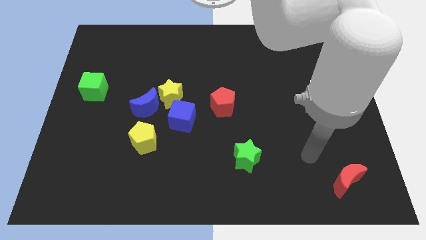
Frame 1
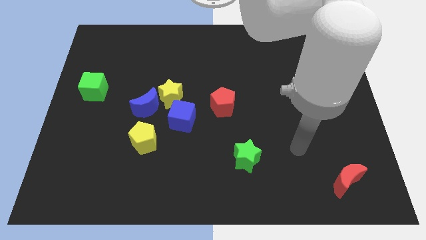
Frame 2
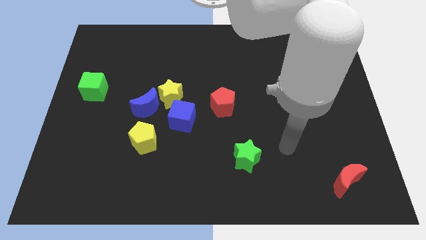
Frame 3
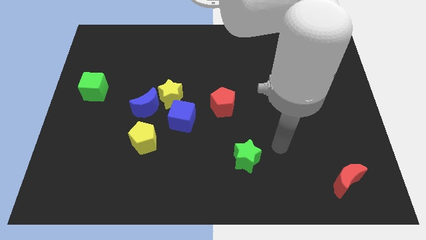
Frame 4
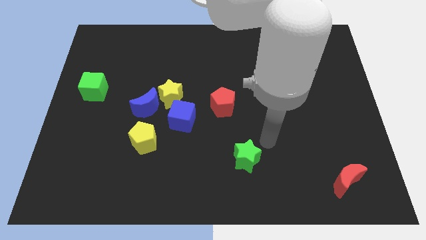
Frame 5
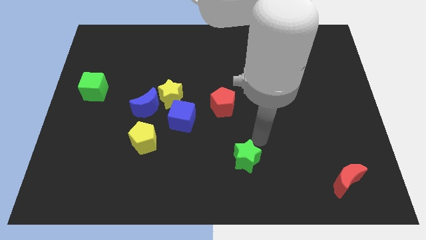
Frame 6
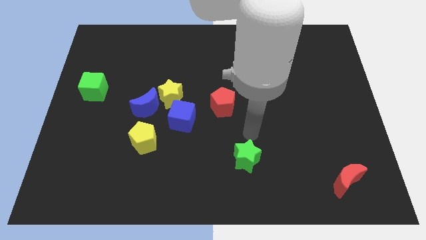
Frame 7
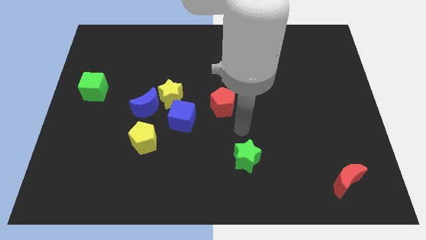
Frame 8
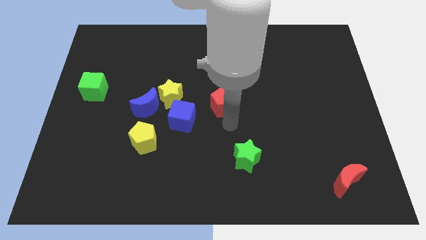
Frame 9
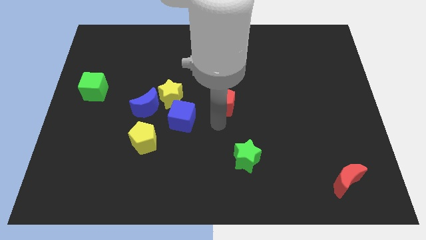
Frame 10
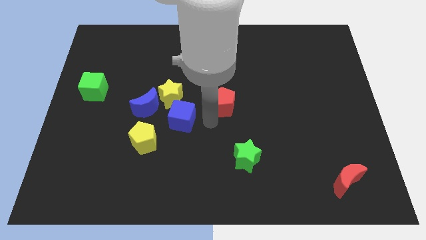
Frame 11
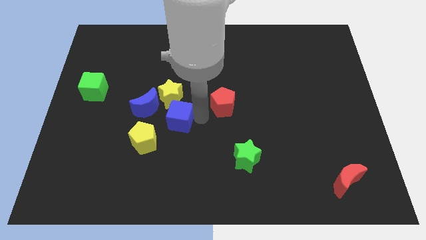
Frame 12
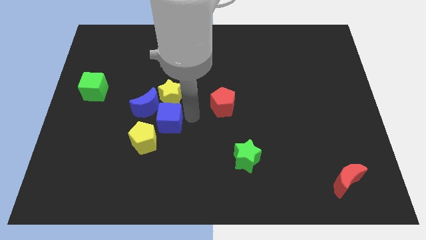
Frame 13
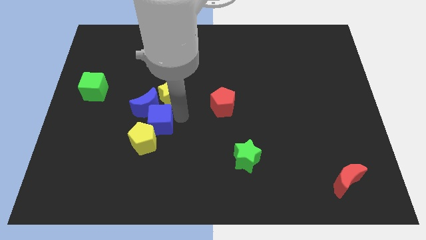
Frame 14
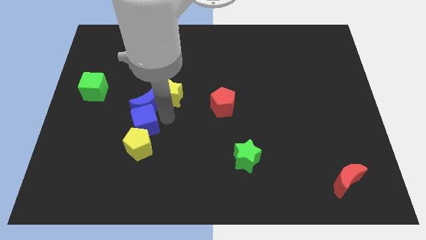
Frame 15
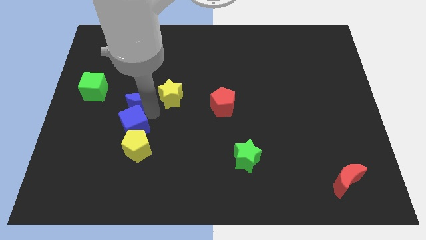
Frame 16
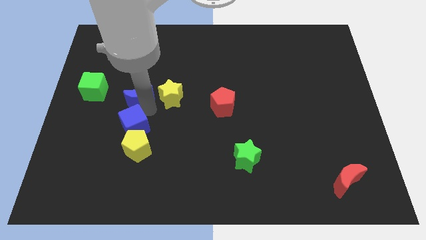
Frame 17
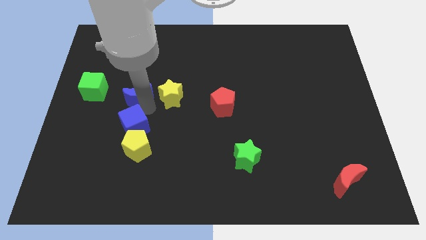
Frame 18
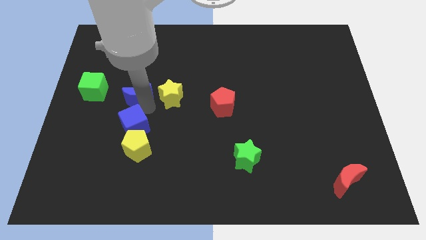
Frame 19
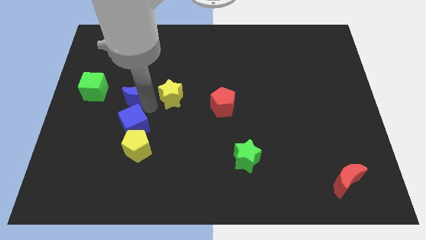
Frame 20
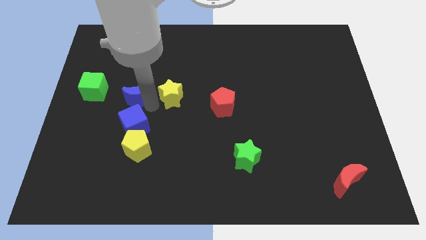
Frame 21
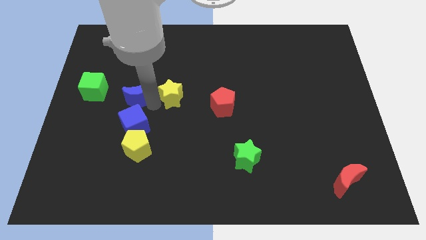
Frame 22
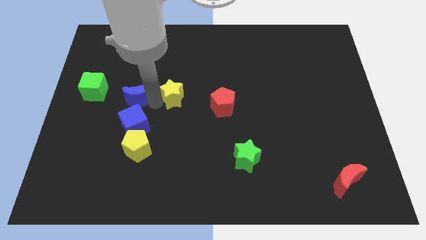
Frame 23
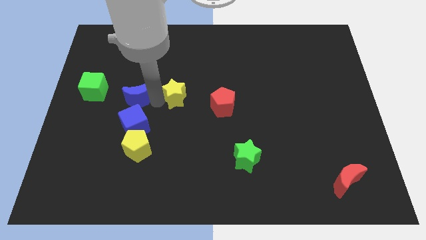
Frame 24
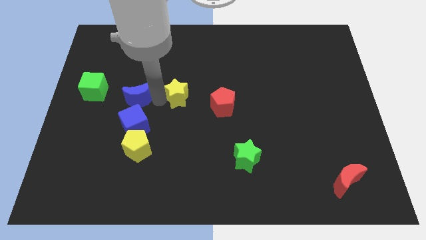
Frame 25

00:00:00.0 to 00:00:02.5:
move the yellow star away from the blue moon and blue cube

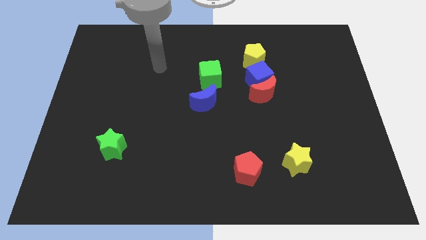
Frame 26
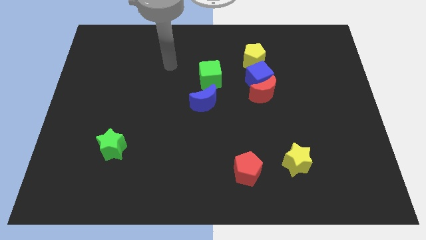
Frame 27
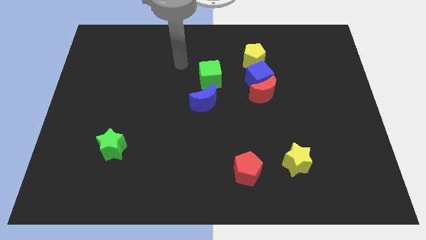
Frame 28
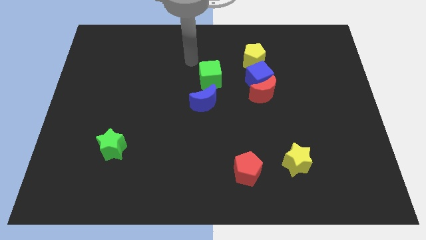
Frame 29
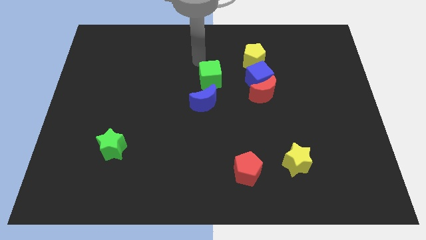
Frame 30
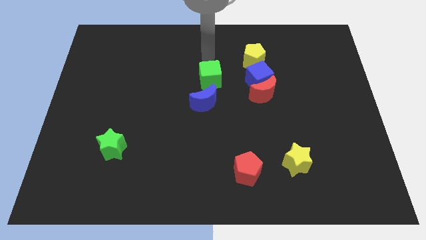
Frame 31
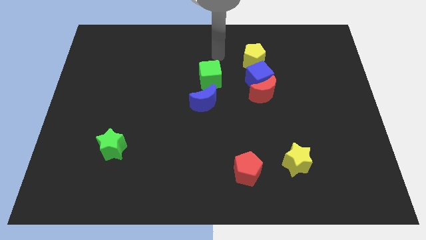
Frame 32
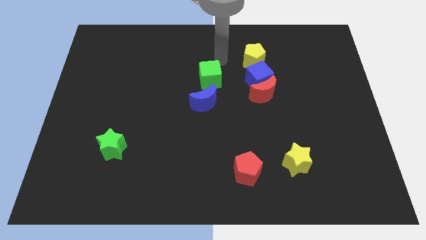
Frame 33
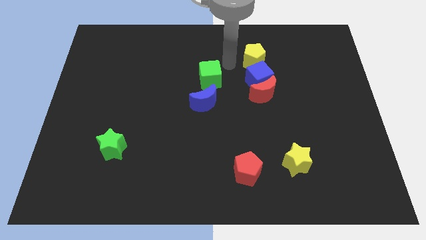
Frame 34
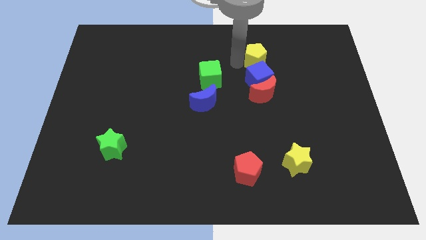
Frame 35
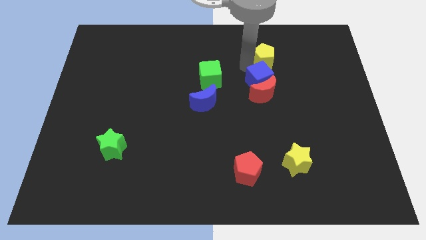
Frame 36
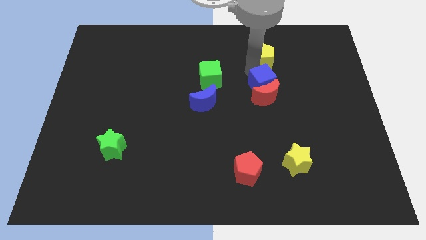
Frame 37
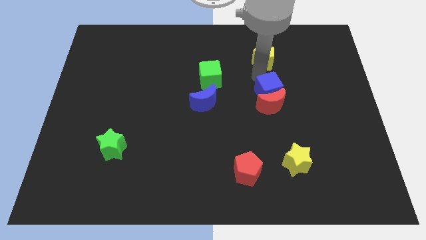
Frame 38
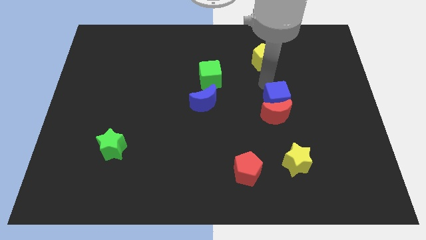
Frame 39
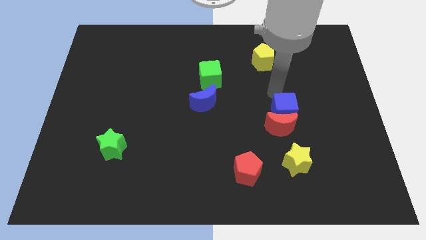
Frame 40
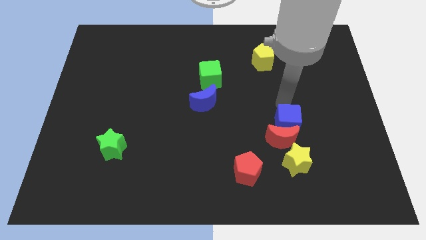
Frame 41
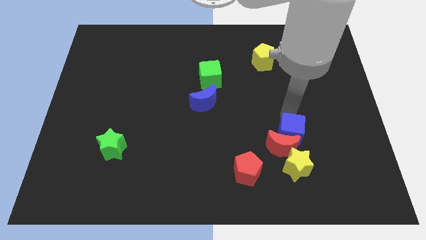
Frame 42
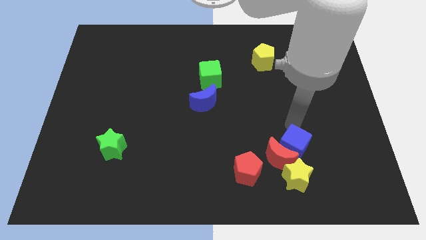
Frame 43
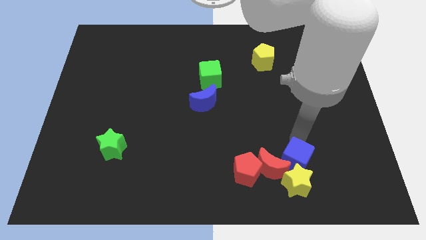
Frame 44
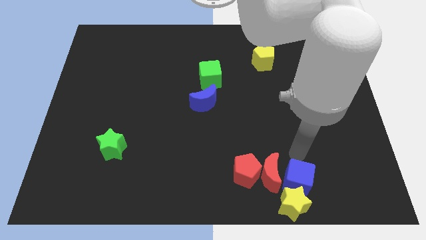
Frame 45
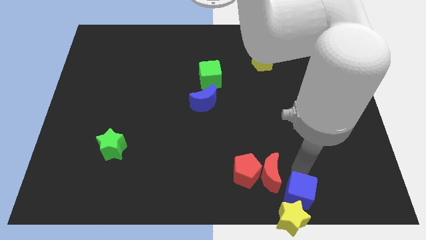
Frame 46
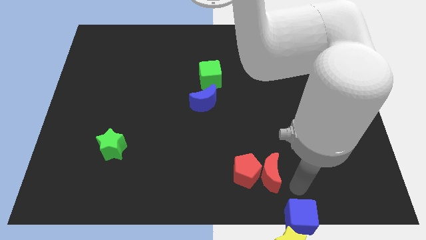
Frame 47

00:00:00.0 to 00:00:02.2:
separate the red moon from the blue cube

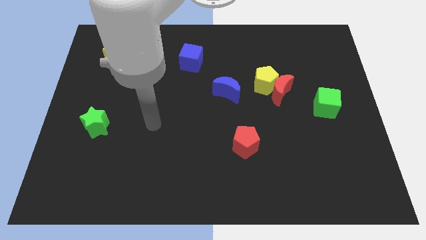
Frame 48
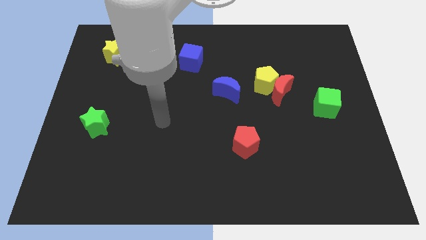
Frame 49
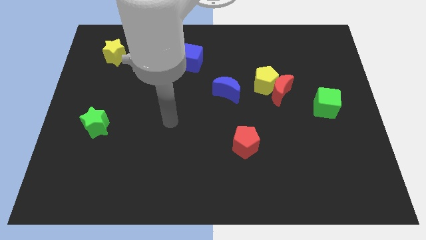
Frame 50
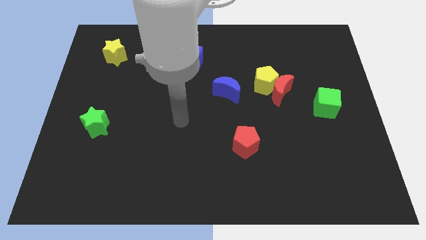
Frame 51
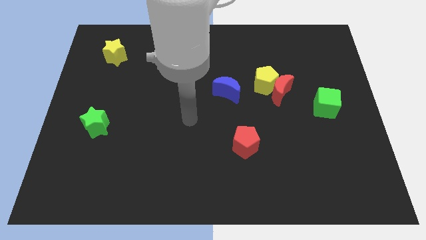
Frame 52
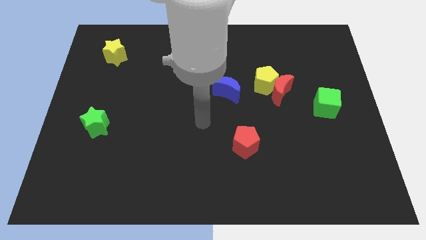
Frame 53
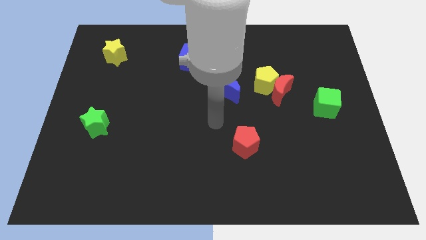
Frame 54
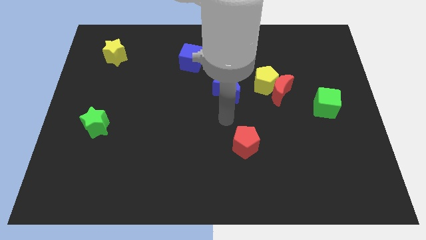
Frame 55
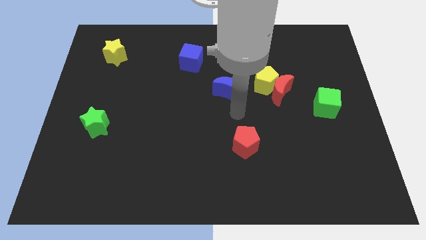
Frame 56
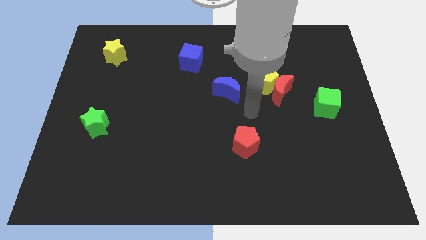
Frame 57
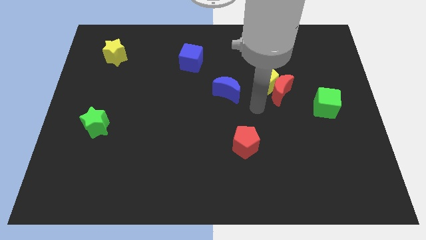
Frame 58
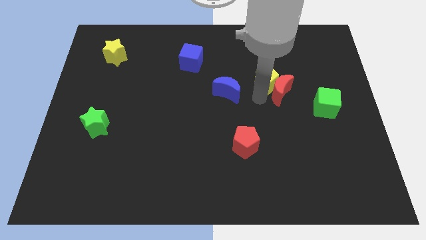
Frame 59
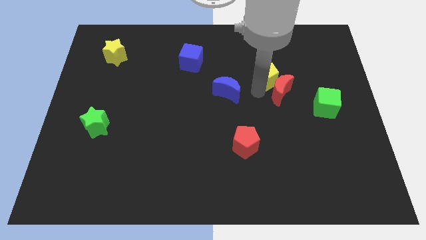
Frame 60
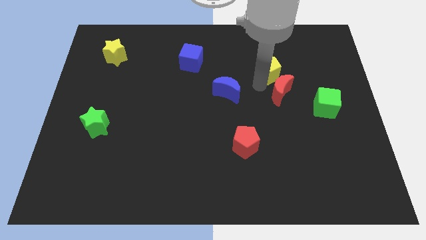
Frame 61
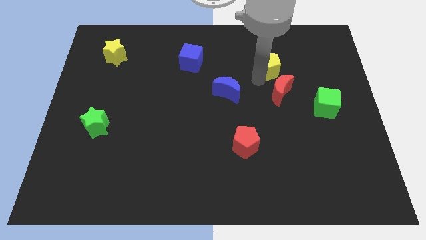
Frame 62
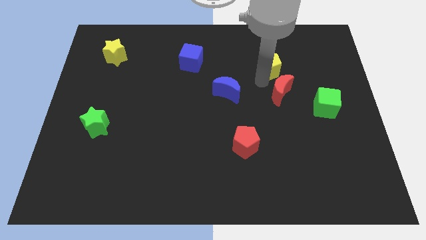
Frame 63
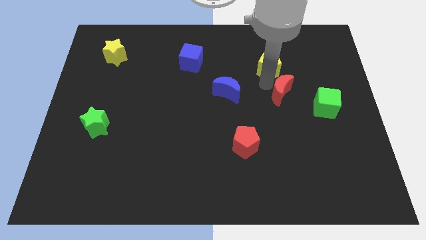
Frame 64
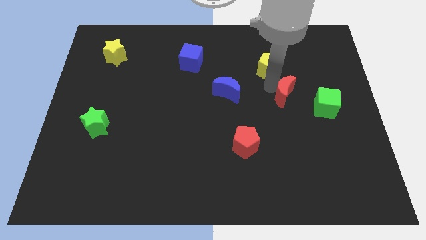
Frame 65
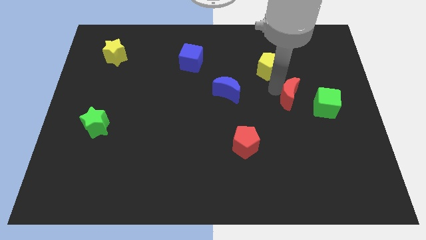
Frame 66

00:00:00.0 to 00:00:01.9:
separate the red moon from the yellow pentagon

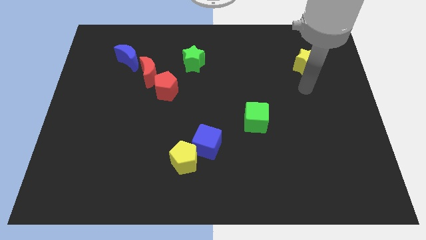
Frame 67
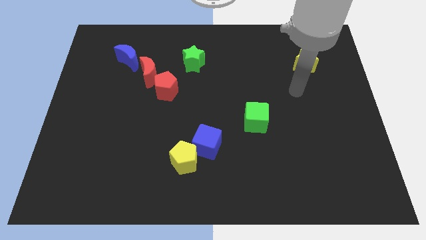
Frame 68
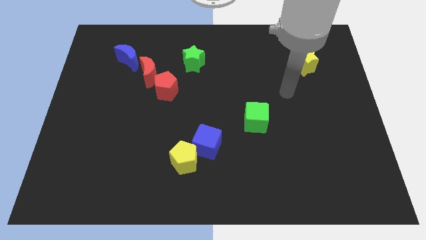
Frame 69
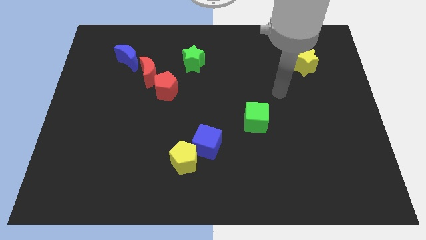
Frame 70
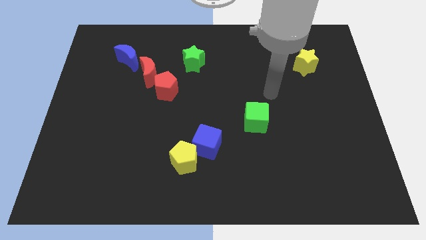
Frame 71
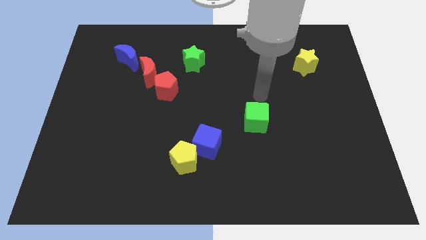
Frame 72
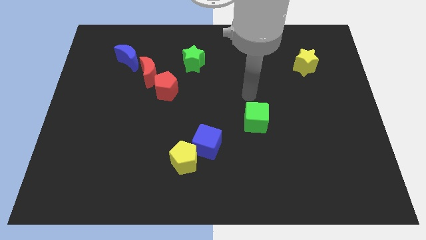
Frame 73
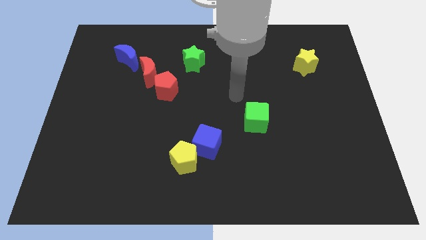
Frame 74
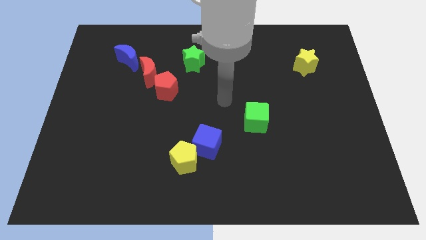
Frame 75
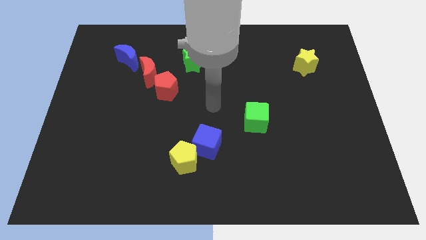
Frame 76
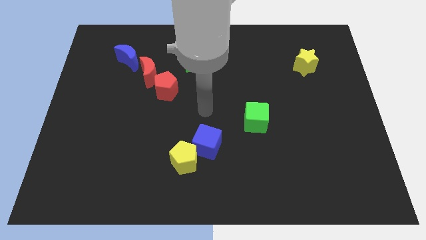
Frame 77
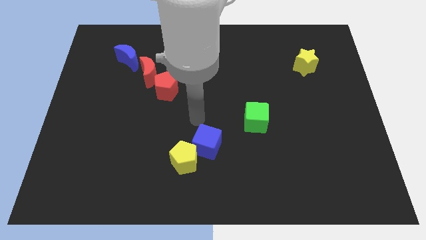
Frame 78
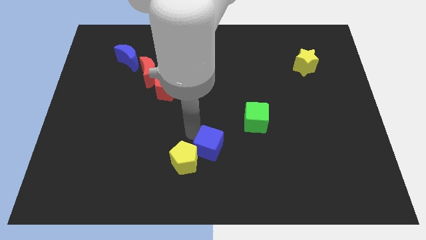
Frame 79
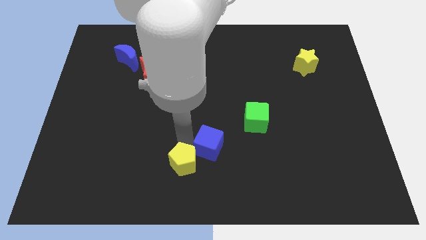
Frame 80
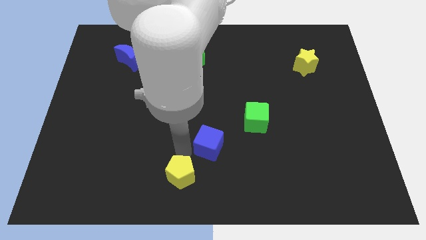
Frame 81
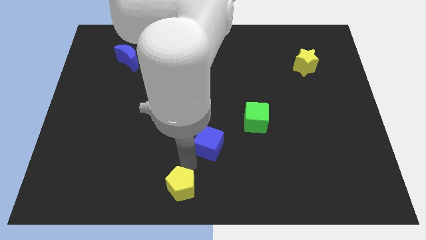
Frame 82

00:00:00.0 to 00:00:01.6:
pull the blue cube apart from the yellow pentagon

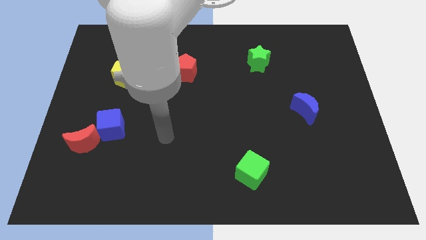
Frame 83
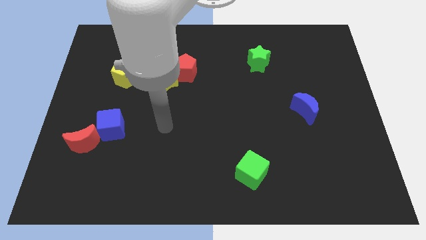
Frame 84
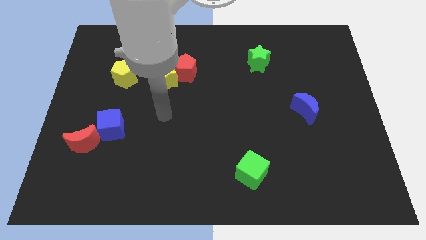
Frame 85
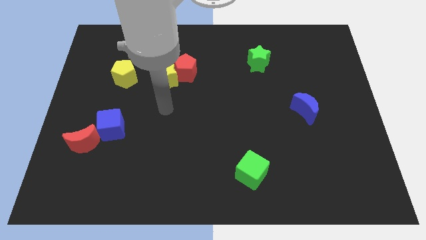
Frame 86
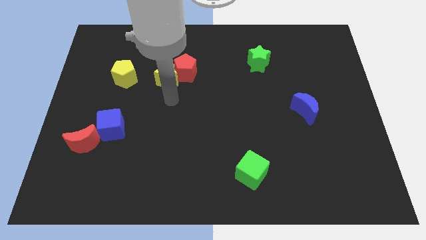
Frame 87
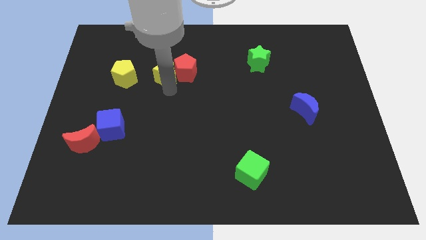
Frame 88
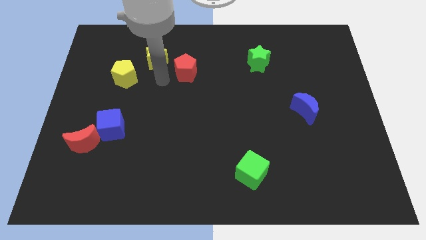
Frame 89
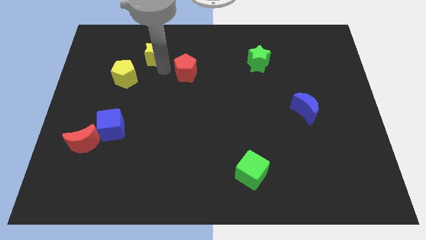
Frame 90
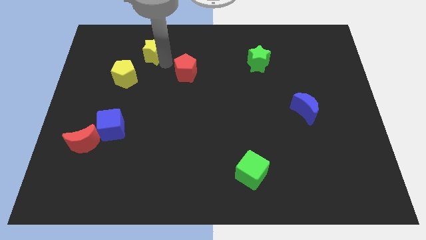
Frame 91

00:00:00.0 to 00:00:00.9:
separate the red pentagon from the yellow star

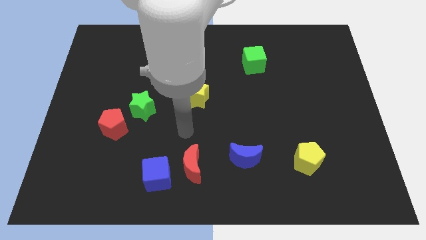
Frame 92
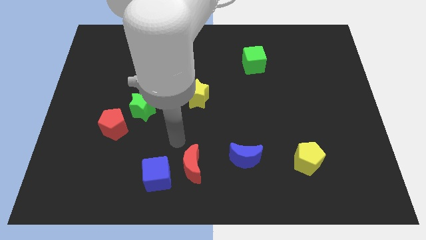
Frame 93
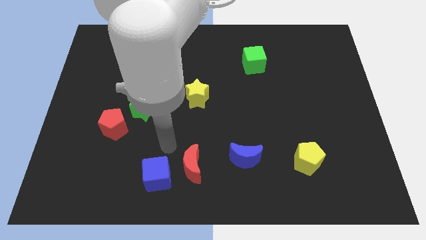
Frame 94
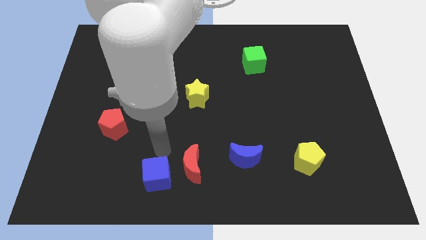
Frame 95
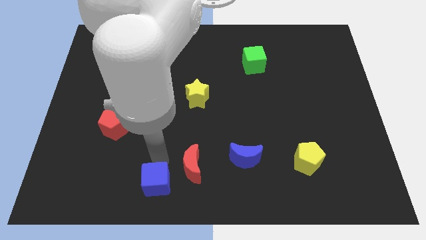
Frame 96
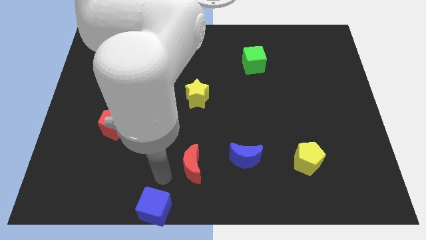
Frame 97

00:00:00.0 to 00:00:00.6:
pull the red moon apart from the blue cube
